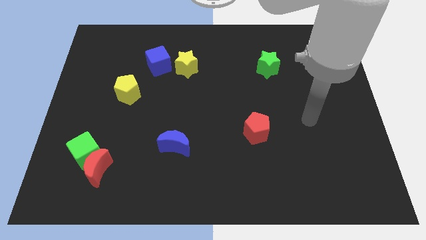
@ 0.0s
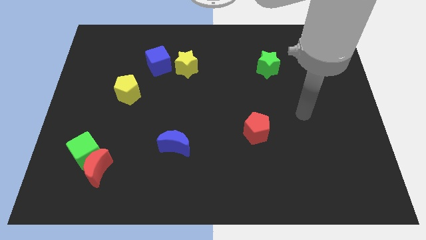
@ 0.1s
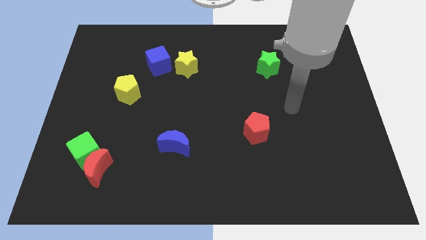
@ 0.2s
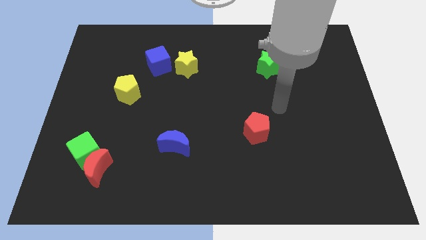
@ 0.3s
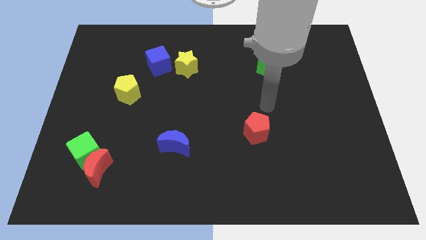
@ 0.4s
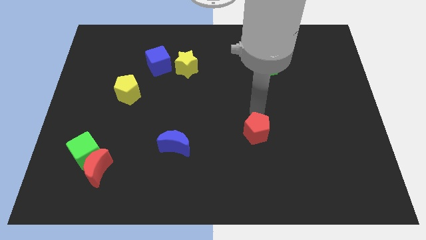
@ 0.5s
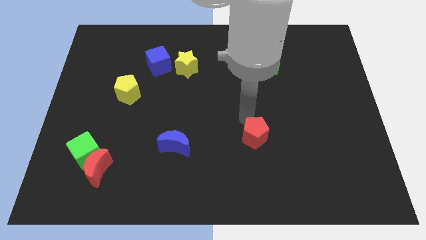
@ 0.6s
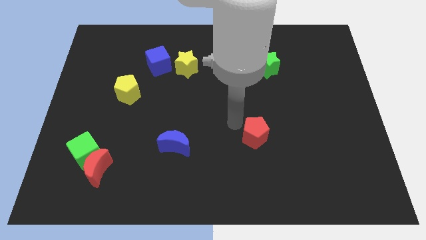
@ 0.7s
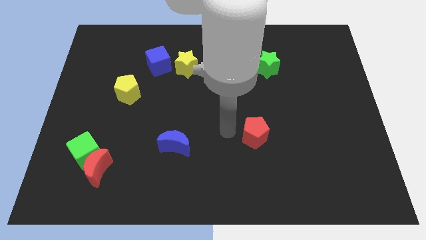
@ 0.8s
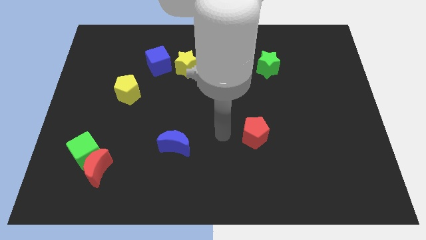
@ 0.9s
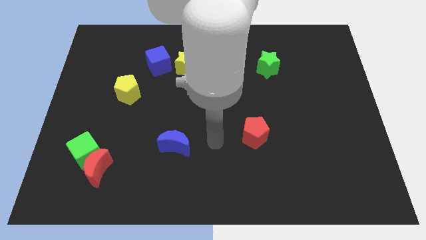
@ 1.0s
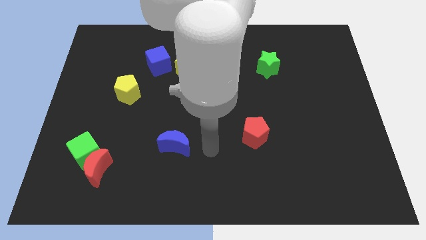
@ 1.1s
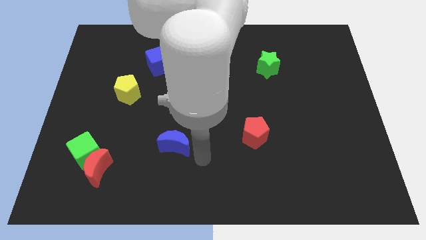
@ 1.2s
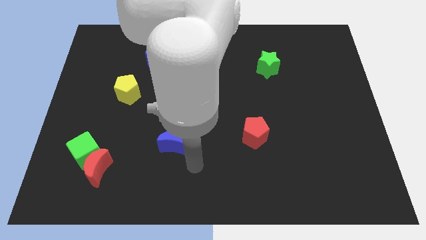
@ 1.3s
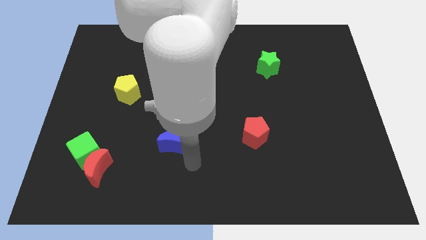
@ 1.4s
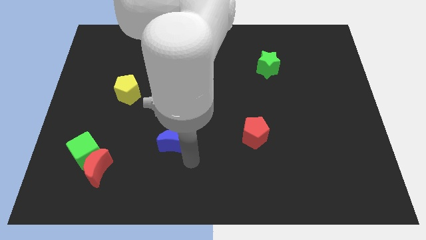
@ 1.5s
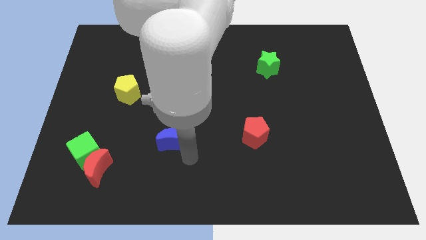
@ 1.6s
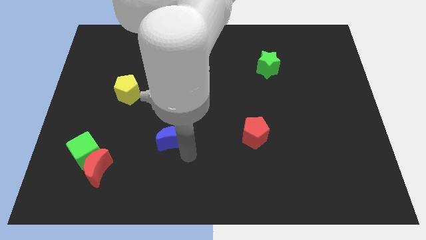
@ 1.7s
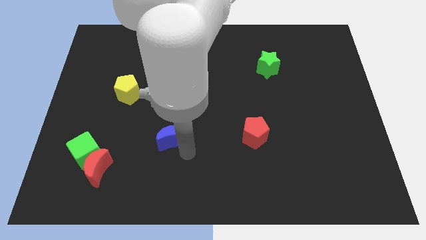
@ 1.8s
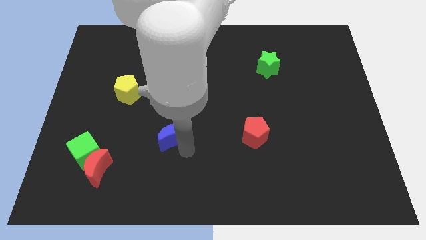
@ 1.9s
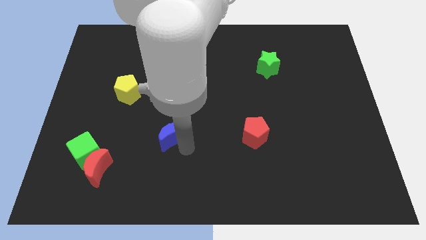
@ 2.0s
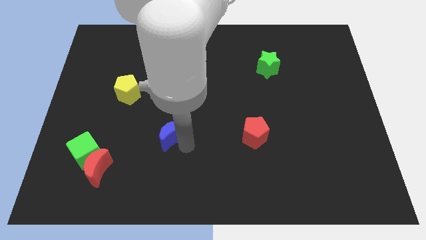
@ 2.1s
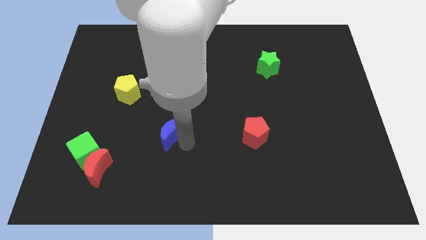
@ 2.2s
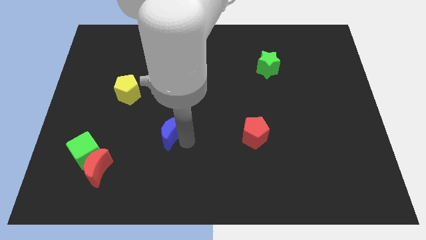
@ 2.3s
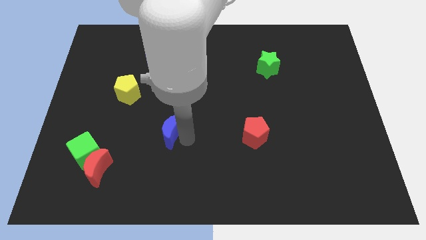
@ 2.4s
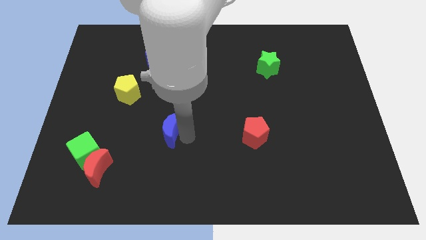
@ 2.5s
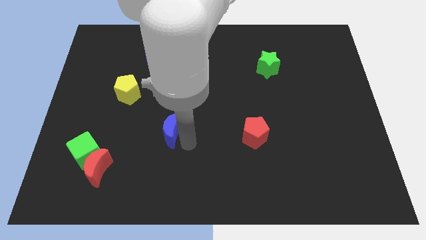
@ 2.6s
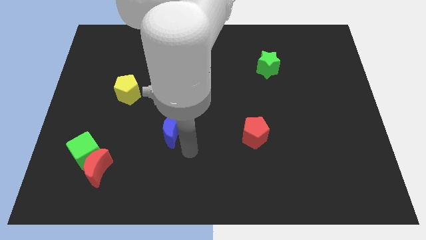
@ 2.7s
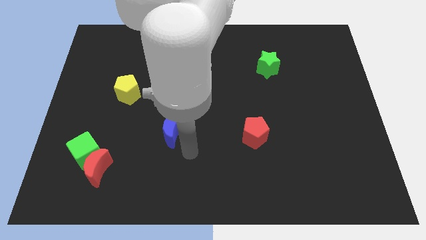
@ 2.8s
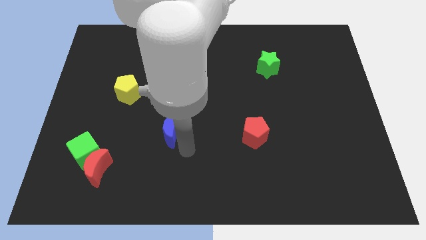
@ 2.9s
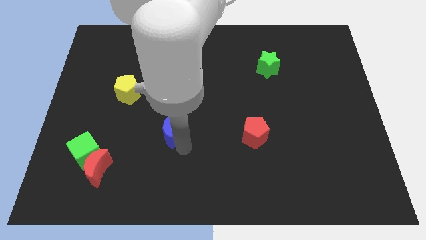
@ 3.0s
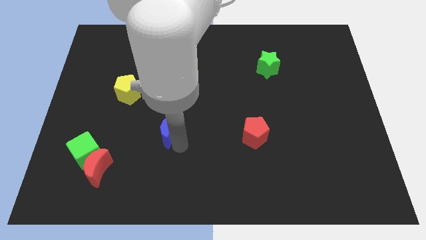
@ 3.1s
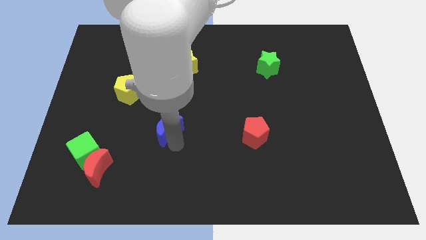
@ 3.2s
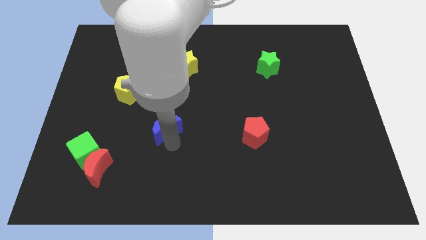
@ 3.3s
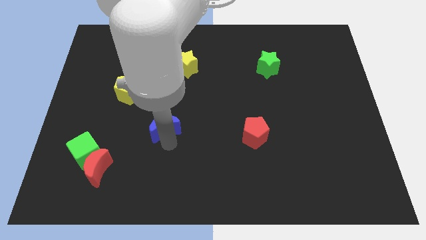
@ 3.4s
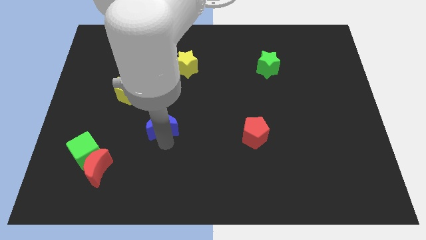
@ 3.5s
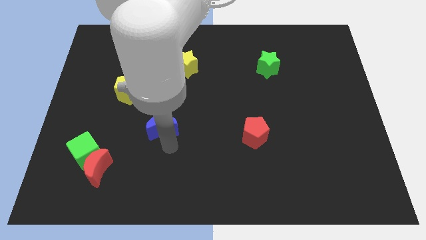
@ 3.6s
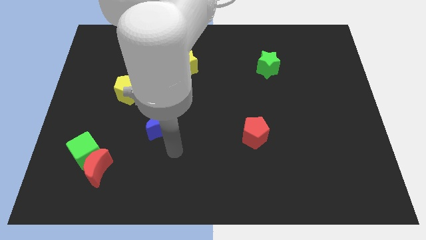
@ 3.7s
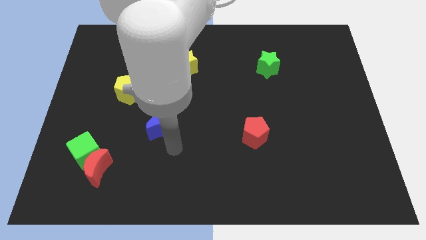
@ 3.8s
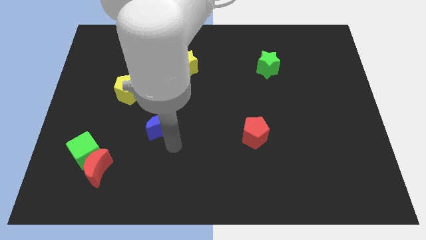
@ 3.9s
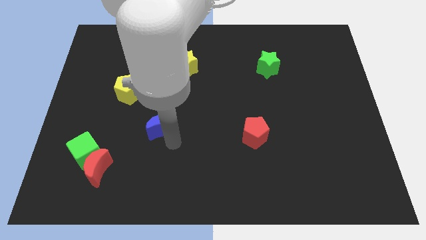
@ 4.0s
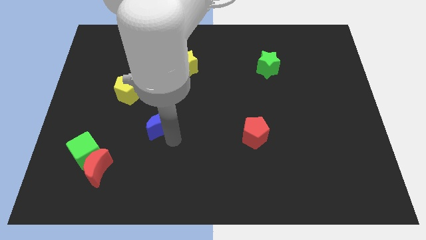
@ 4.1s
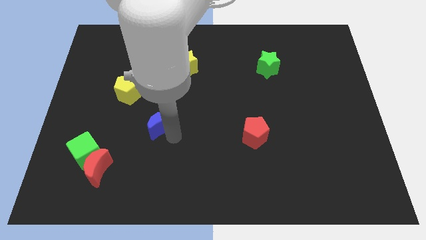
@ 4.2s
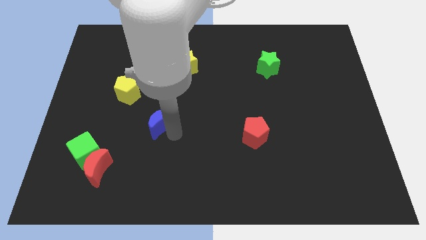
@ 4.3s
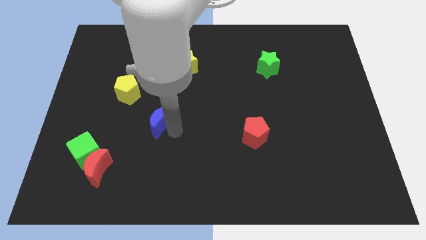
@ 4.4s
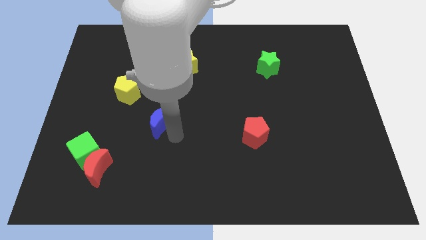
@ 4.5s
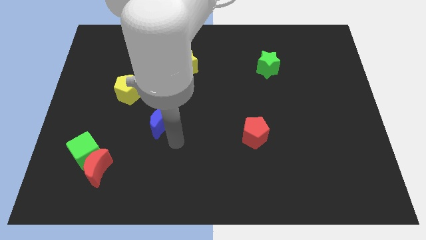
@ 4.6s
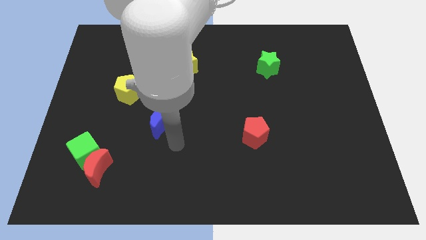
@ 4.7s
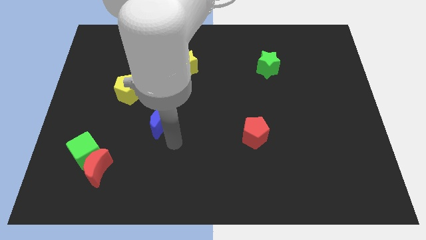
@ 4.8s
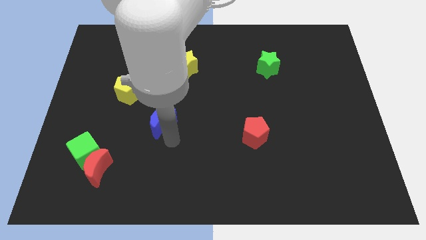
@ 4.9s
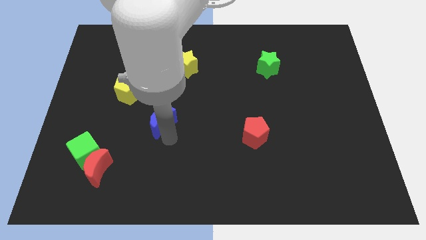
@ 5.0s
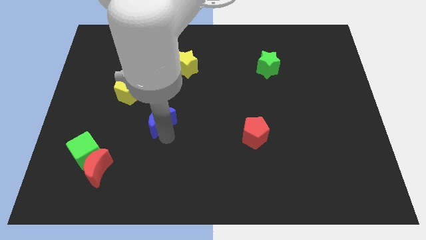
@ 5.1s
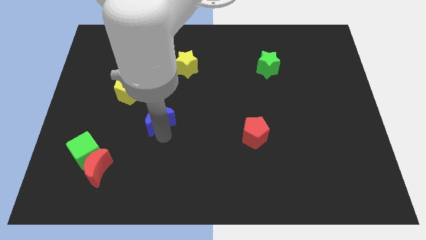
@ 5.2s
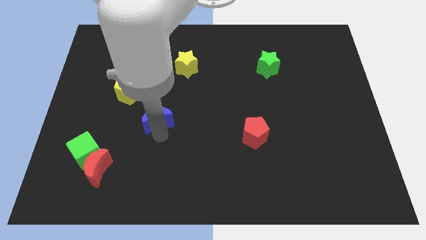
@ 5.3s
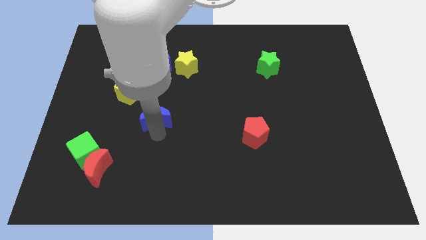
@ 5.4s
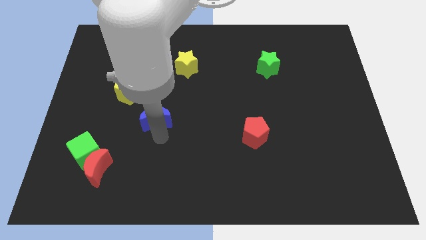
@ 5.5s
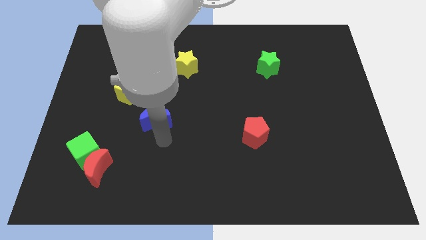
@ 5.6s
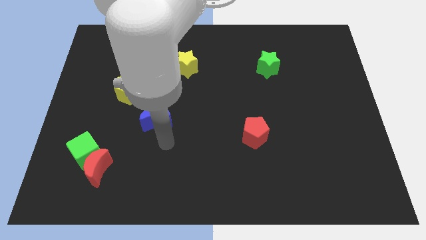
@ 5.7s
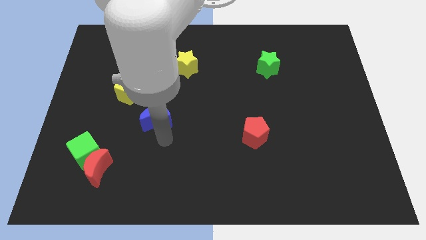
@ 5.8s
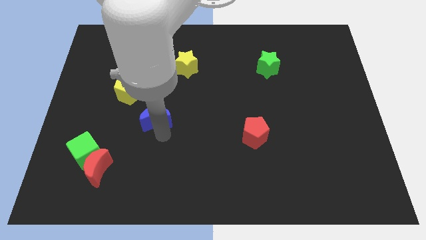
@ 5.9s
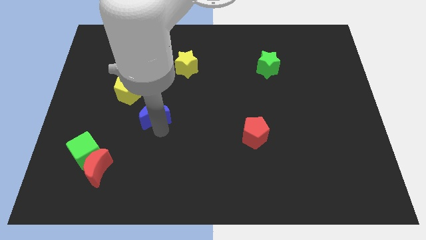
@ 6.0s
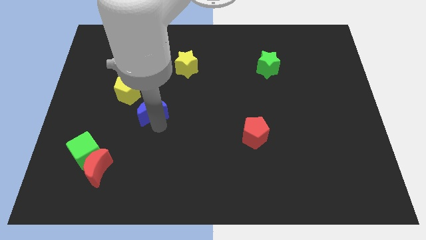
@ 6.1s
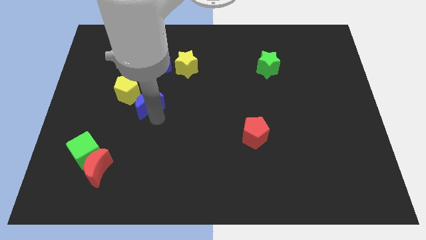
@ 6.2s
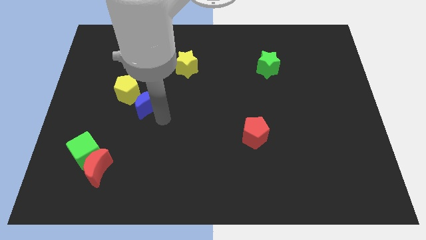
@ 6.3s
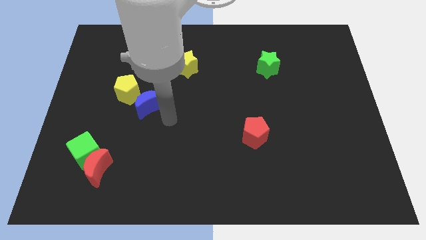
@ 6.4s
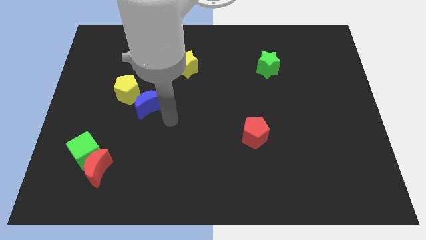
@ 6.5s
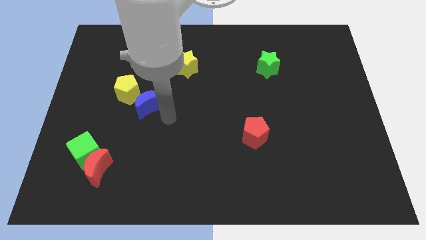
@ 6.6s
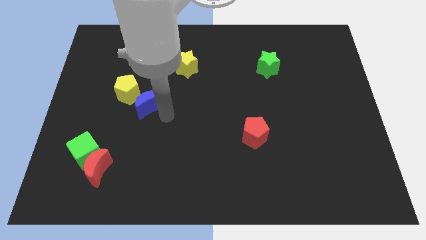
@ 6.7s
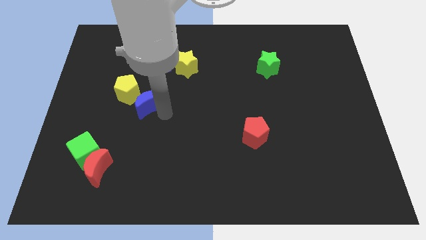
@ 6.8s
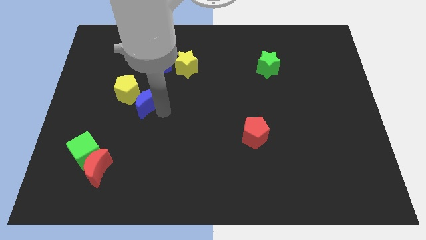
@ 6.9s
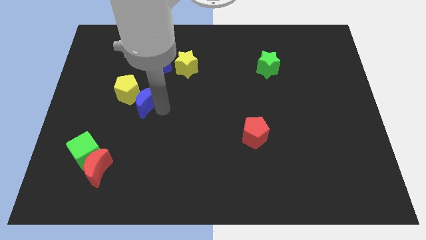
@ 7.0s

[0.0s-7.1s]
push the blue moon towards the yellow pentagon
